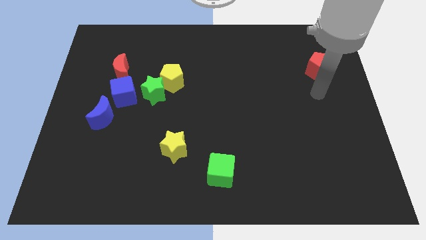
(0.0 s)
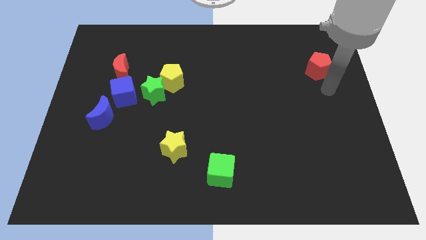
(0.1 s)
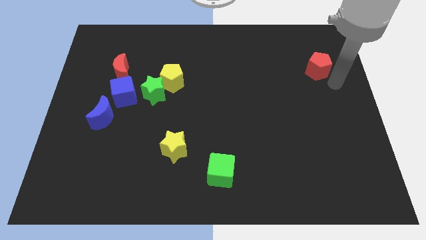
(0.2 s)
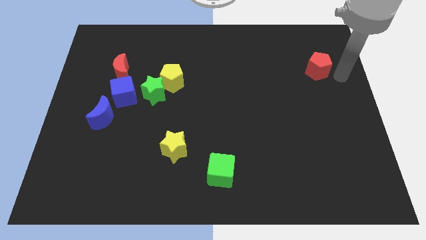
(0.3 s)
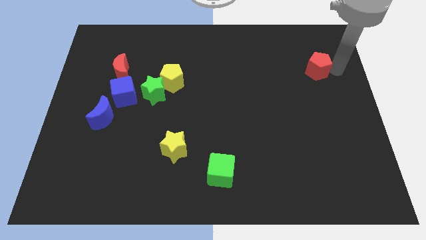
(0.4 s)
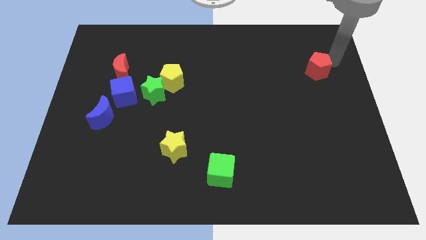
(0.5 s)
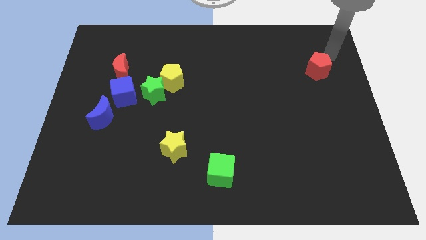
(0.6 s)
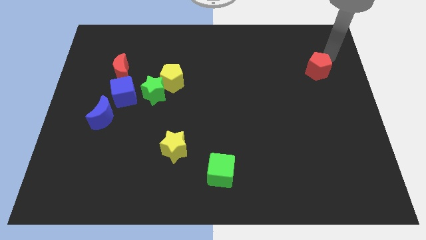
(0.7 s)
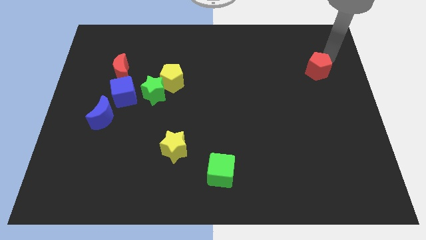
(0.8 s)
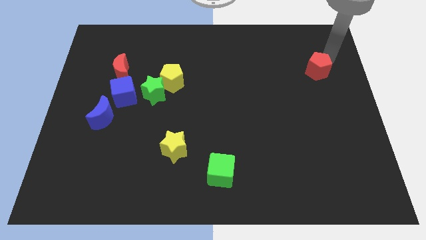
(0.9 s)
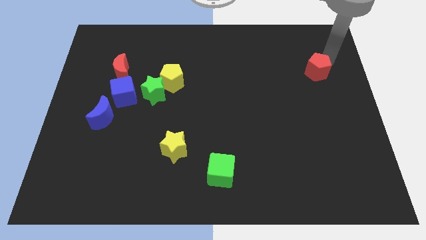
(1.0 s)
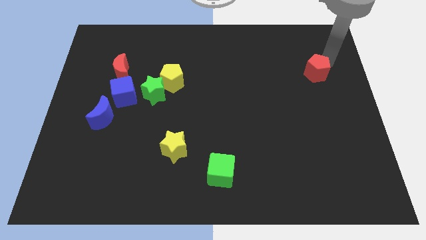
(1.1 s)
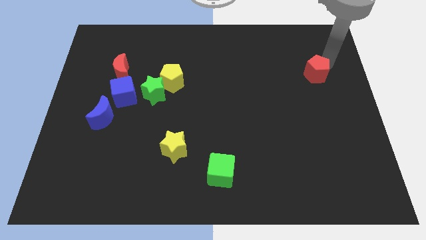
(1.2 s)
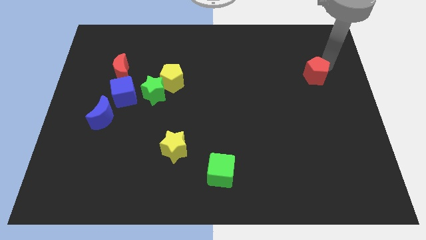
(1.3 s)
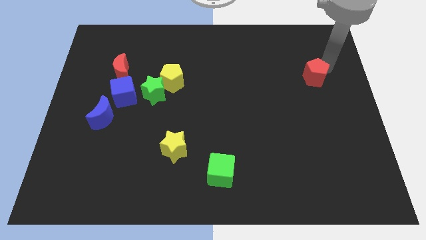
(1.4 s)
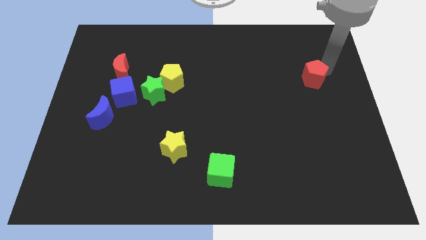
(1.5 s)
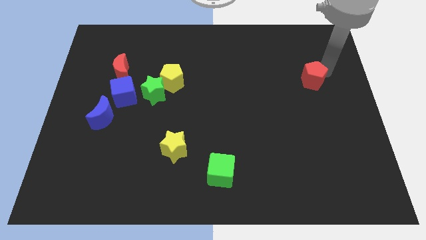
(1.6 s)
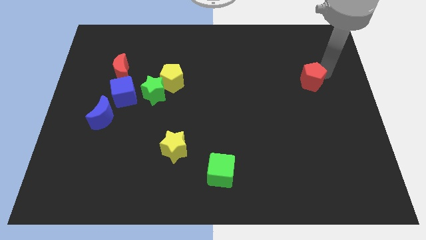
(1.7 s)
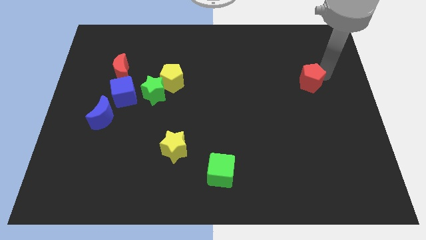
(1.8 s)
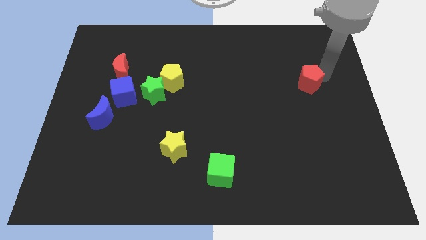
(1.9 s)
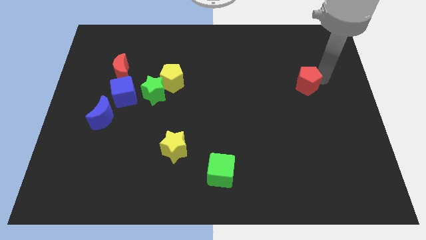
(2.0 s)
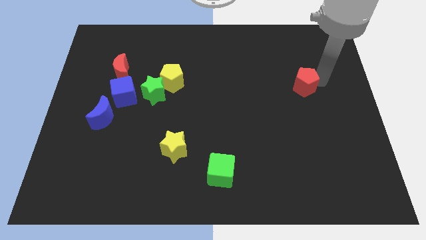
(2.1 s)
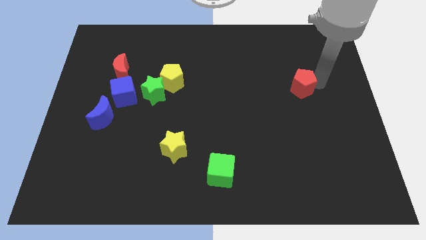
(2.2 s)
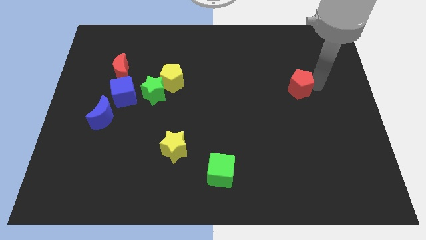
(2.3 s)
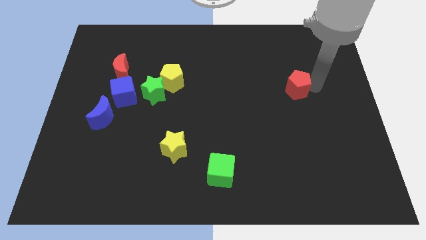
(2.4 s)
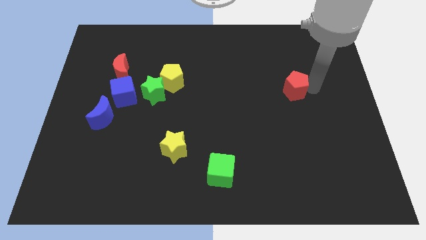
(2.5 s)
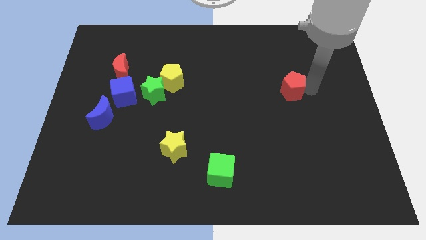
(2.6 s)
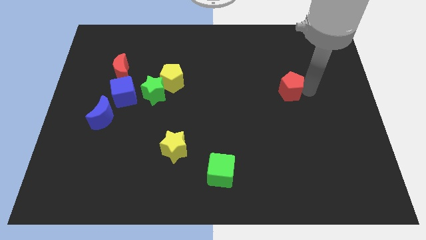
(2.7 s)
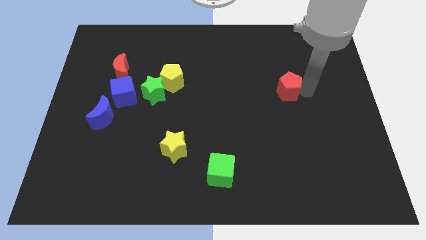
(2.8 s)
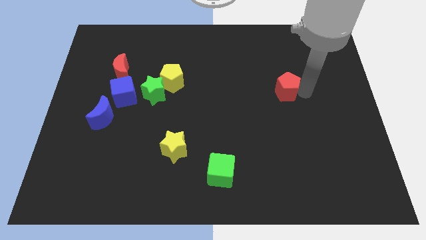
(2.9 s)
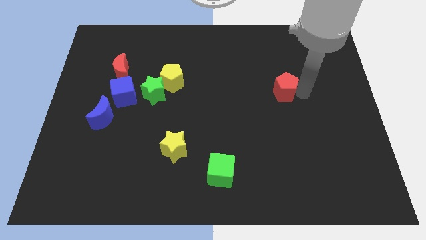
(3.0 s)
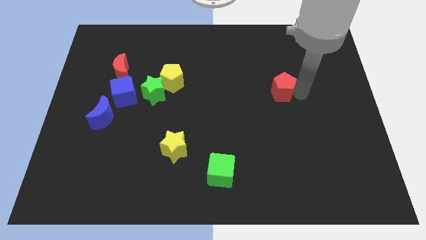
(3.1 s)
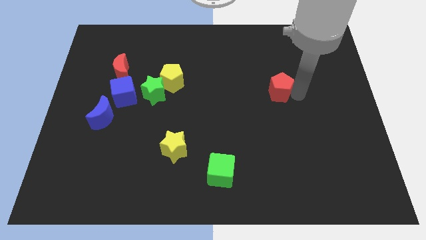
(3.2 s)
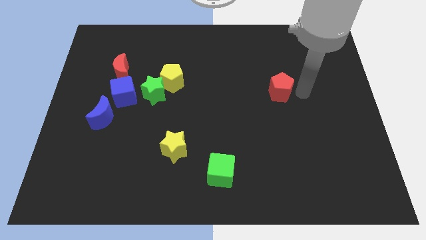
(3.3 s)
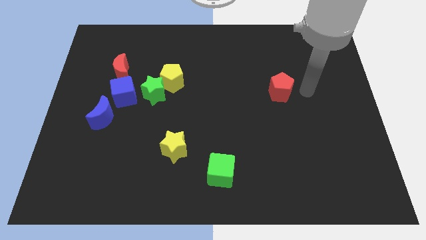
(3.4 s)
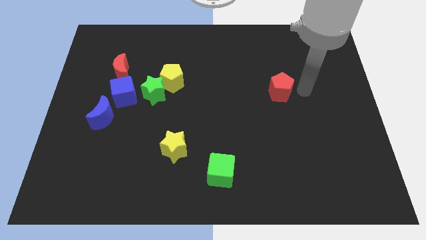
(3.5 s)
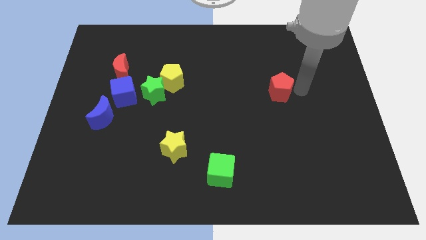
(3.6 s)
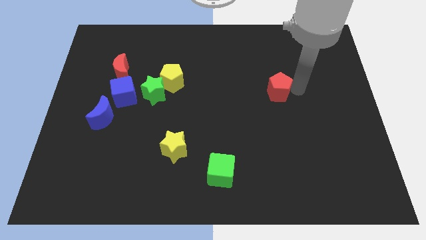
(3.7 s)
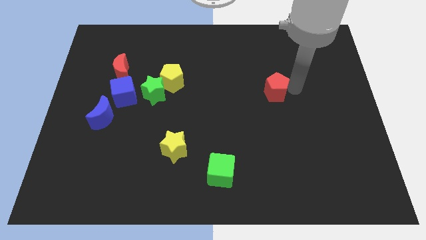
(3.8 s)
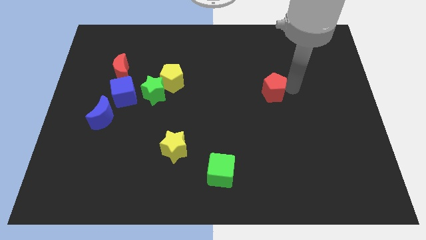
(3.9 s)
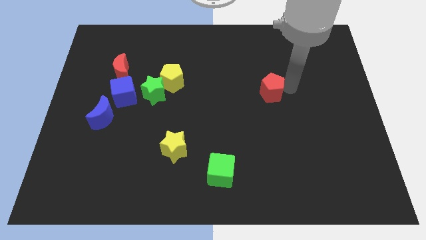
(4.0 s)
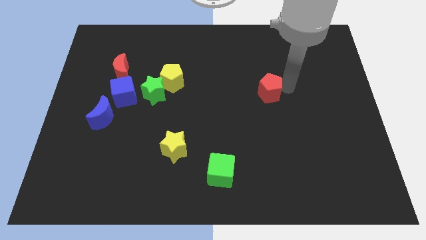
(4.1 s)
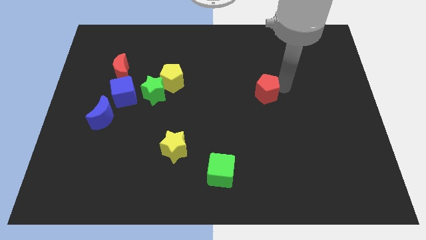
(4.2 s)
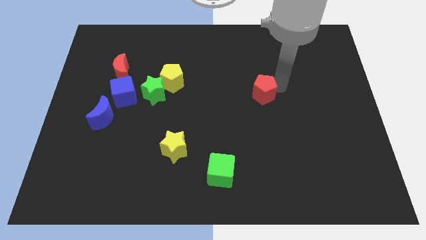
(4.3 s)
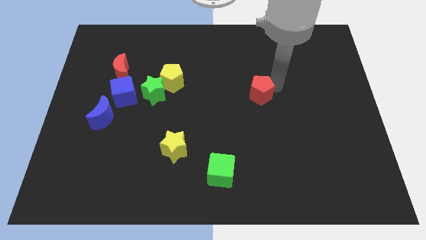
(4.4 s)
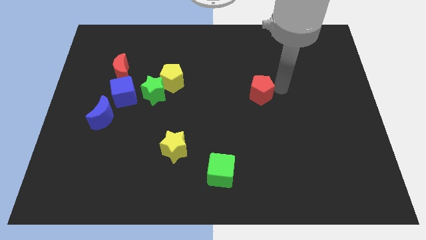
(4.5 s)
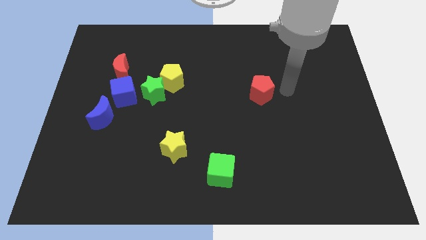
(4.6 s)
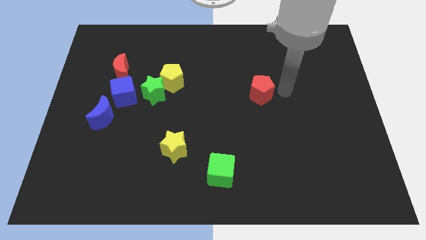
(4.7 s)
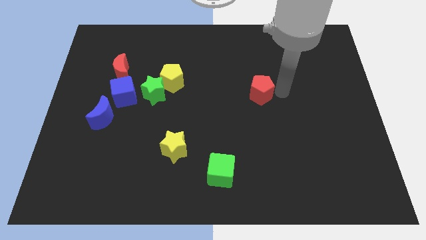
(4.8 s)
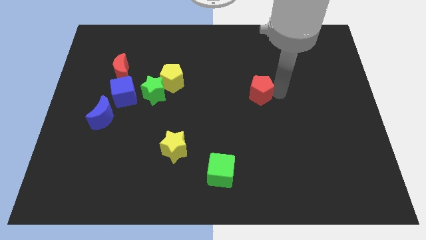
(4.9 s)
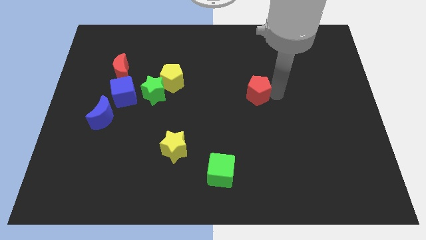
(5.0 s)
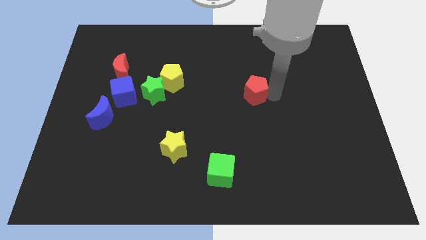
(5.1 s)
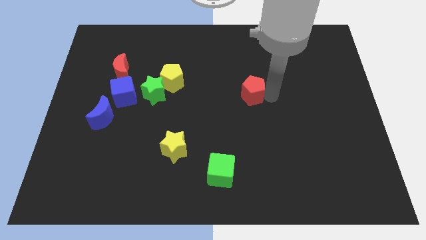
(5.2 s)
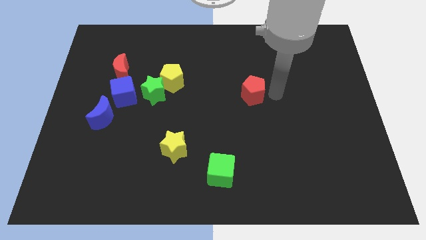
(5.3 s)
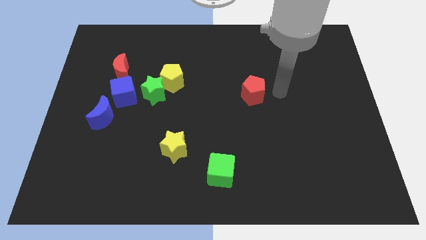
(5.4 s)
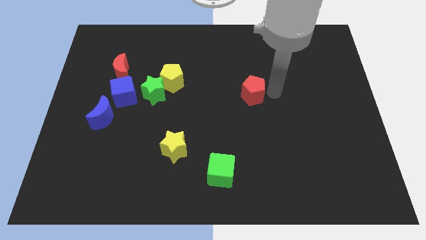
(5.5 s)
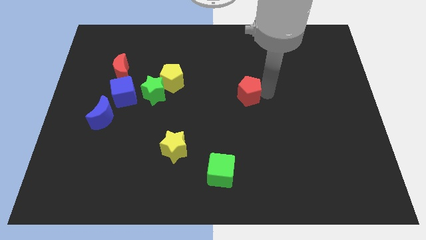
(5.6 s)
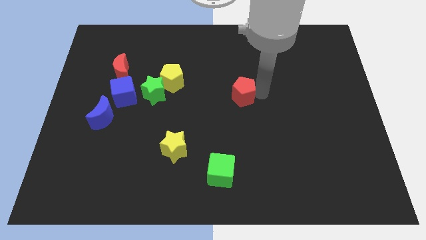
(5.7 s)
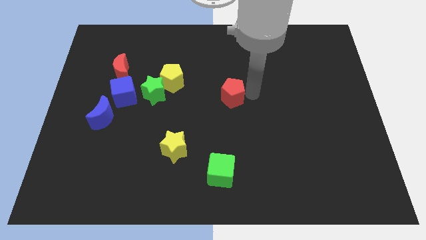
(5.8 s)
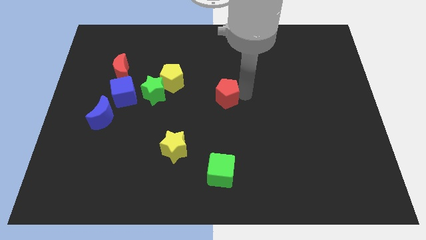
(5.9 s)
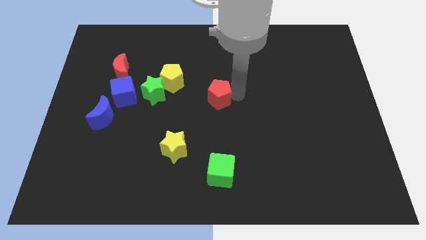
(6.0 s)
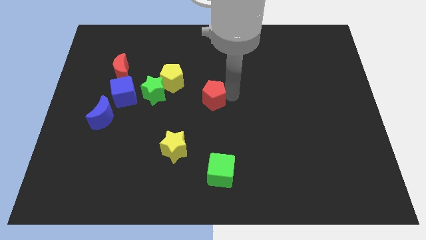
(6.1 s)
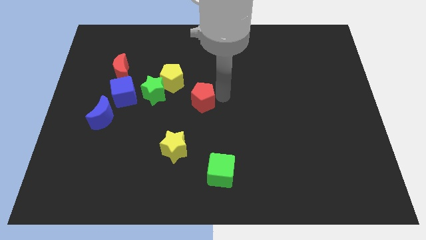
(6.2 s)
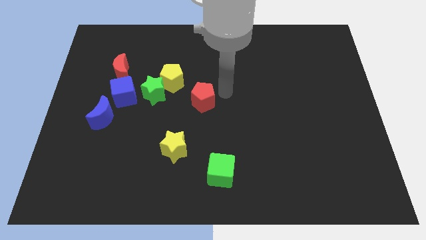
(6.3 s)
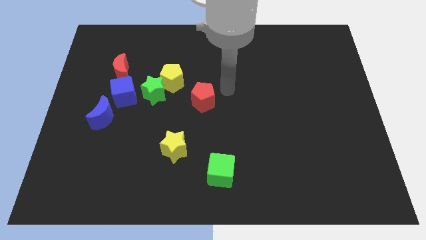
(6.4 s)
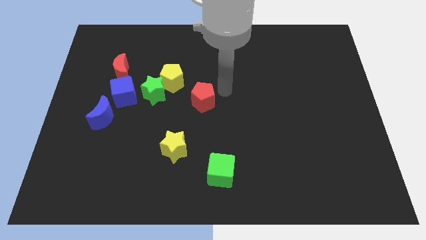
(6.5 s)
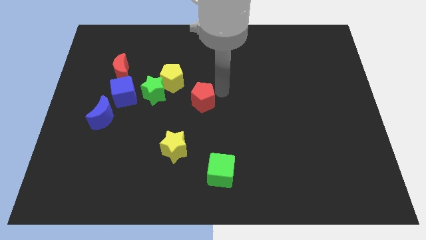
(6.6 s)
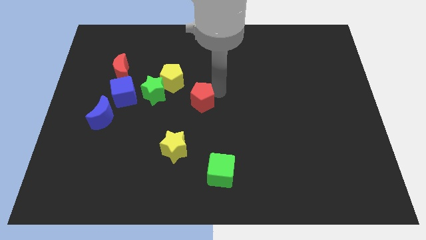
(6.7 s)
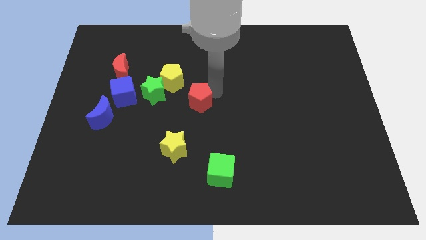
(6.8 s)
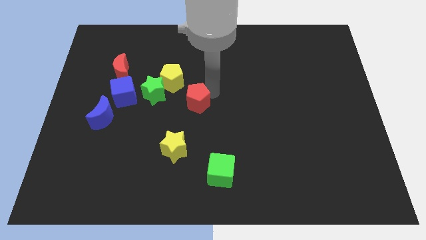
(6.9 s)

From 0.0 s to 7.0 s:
put the red pentagon to the top side of the yellow star
